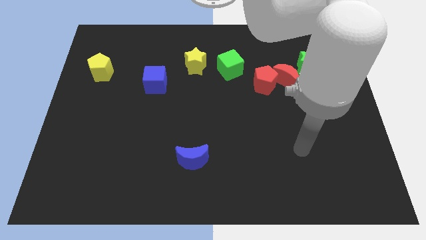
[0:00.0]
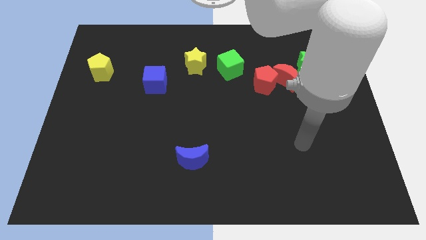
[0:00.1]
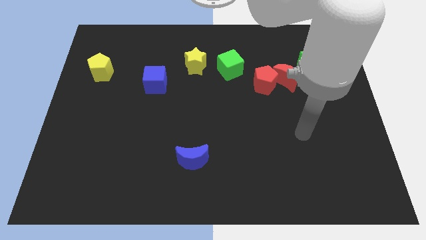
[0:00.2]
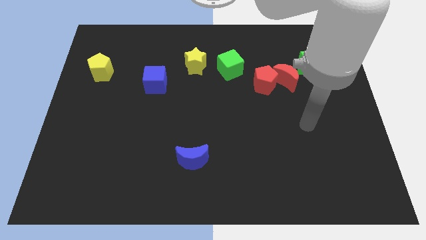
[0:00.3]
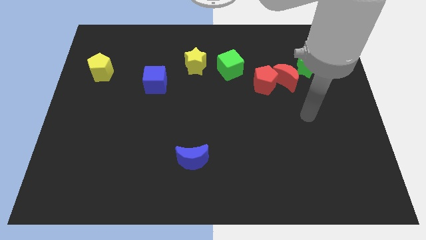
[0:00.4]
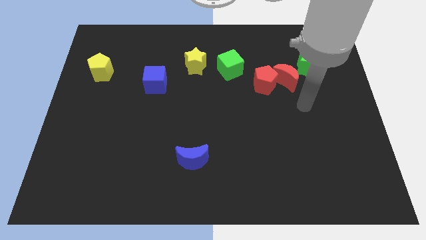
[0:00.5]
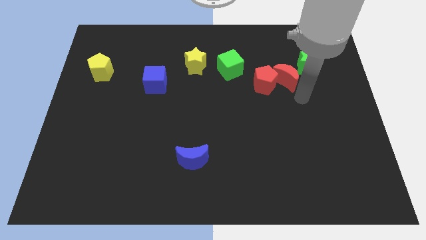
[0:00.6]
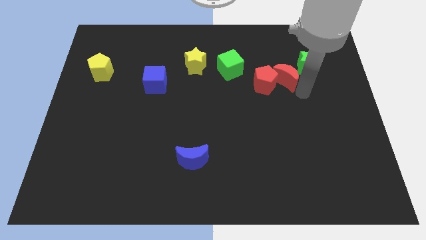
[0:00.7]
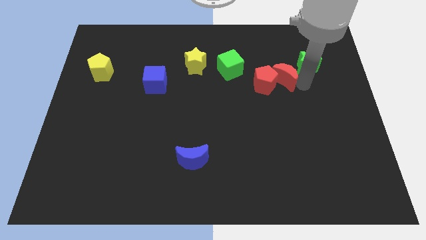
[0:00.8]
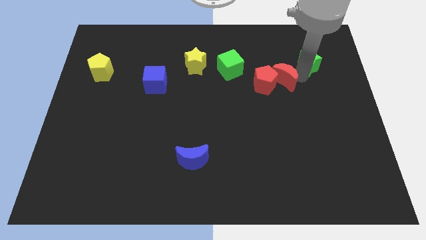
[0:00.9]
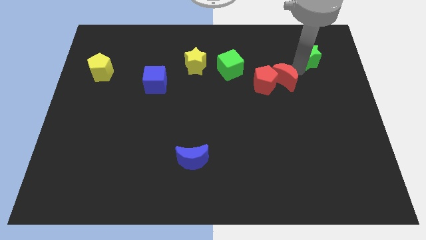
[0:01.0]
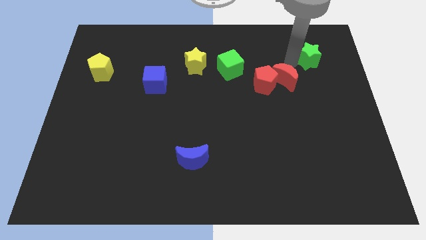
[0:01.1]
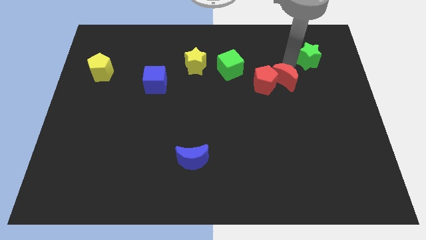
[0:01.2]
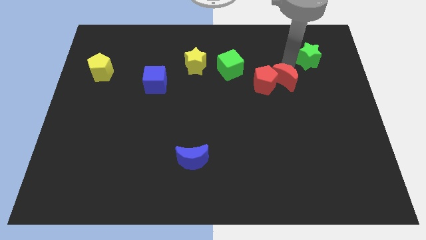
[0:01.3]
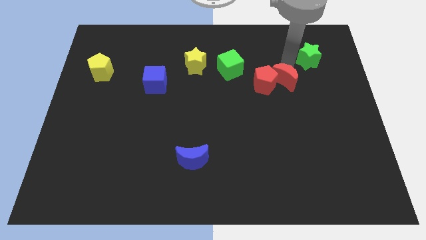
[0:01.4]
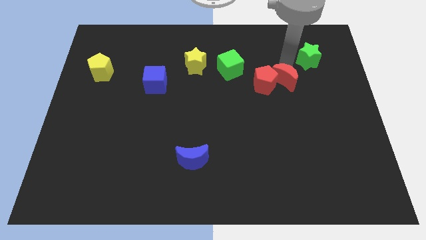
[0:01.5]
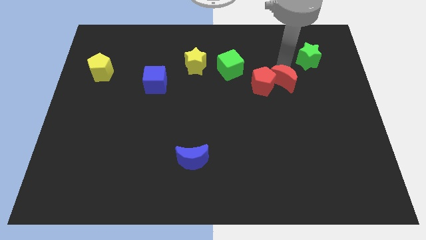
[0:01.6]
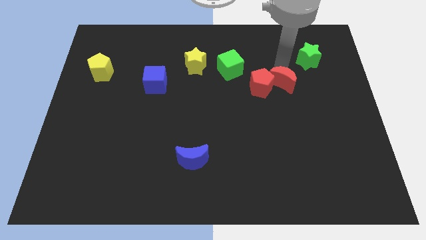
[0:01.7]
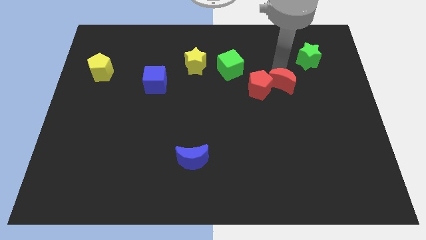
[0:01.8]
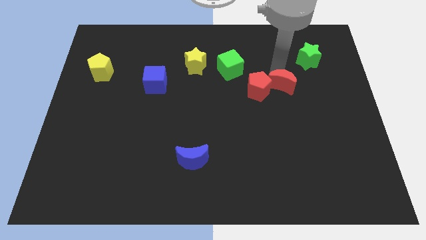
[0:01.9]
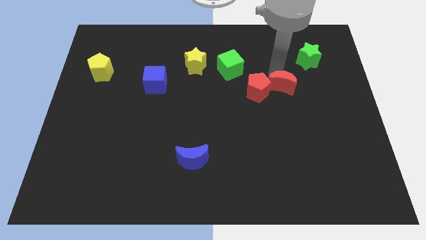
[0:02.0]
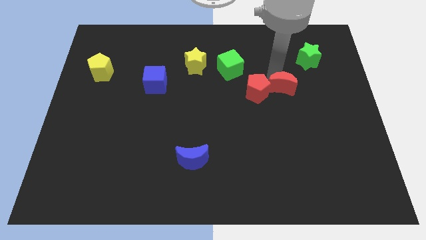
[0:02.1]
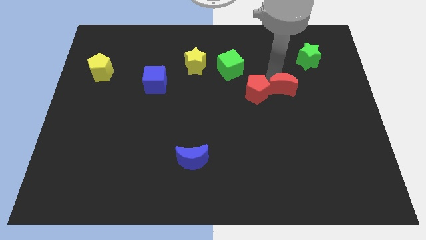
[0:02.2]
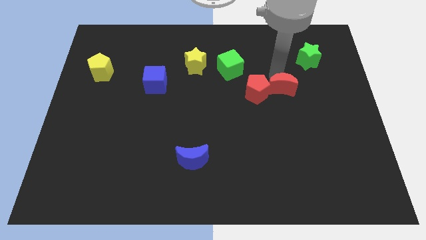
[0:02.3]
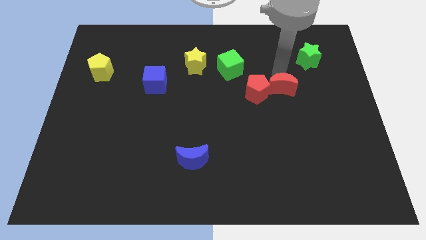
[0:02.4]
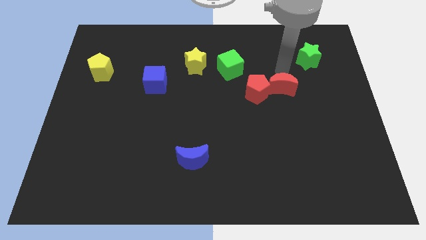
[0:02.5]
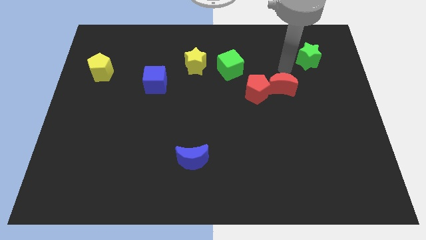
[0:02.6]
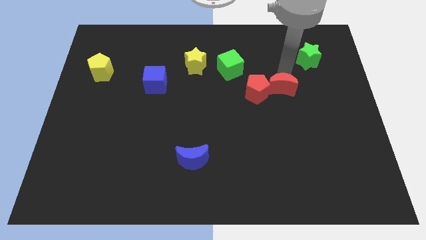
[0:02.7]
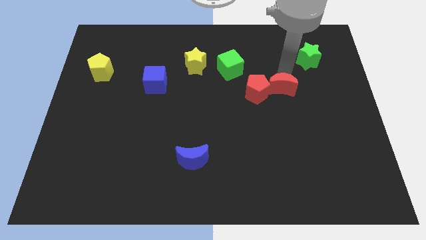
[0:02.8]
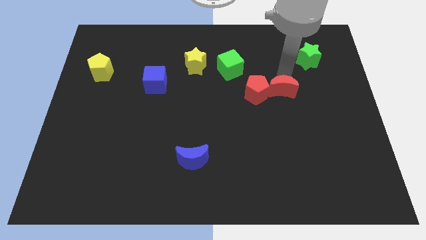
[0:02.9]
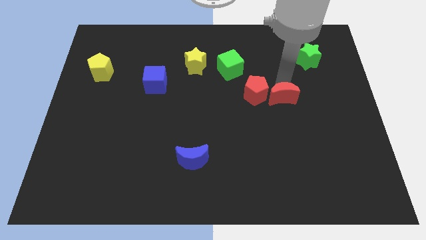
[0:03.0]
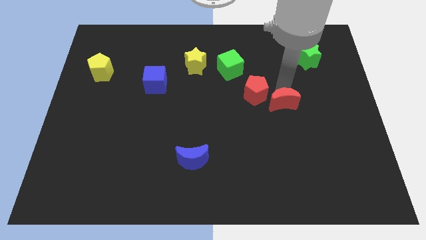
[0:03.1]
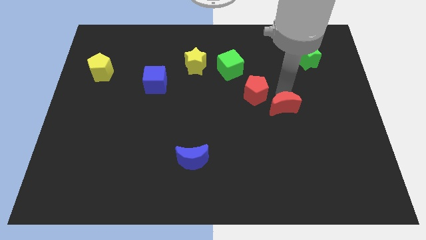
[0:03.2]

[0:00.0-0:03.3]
pull the red moon apart from the red pentagon and green star

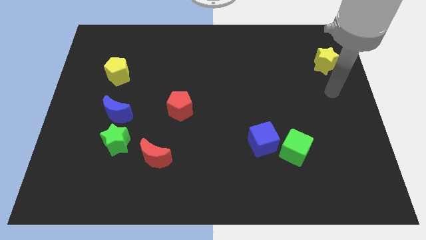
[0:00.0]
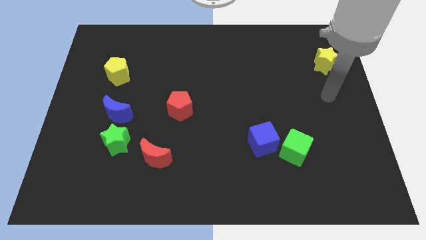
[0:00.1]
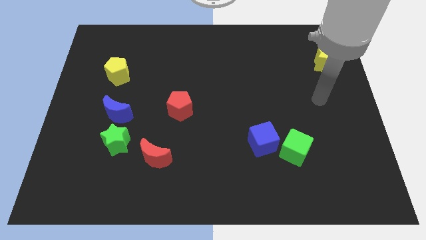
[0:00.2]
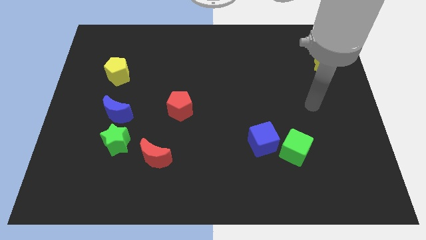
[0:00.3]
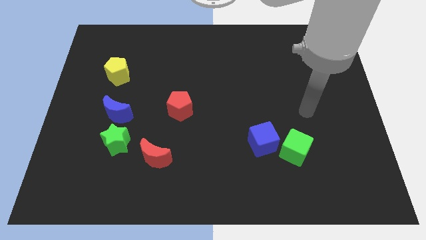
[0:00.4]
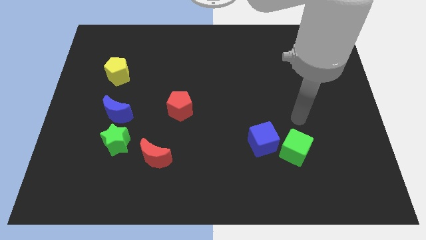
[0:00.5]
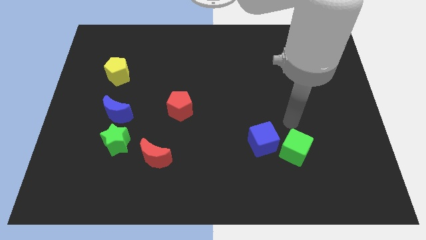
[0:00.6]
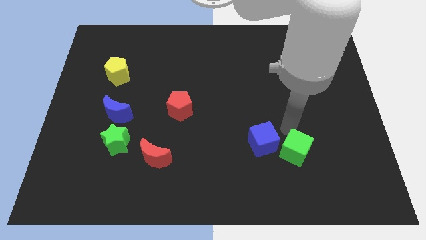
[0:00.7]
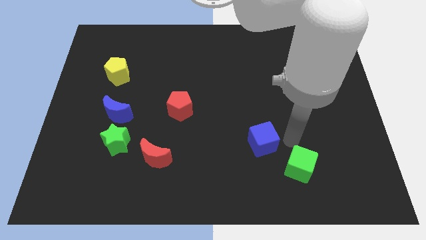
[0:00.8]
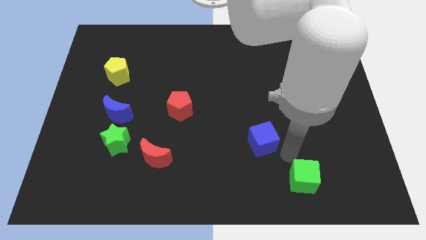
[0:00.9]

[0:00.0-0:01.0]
move the blue cube away from the green cube

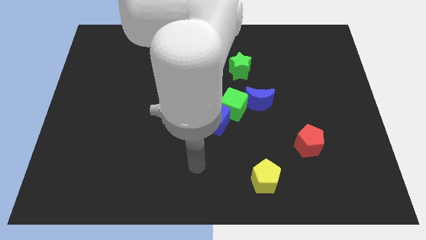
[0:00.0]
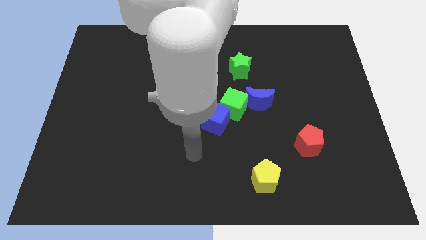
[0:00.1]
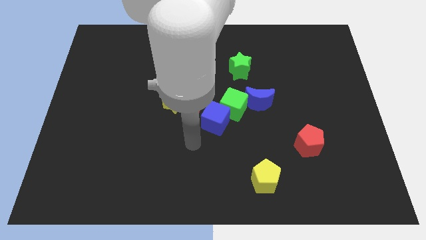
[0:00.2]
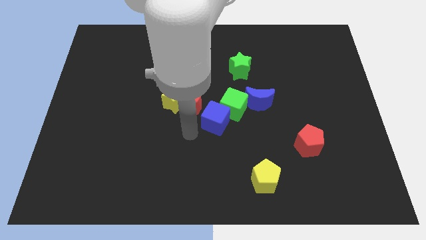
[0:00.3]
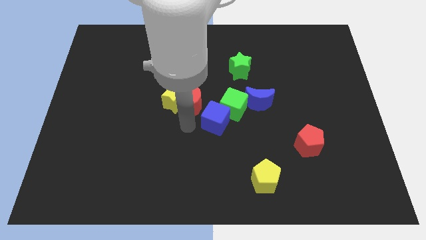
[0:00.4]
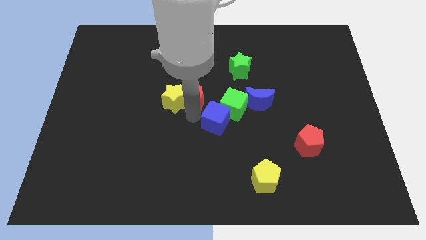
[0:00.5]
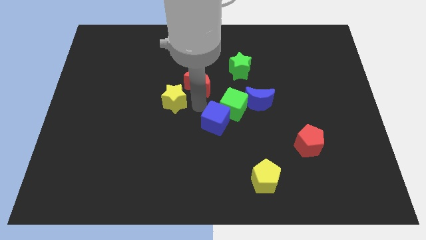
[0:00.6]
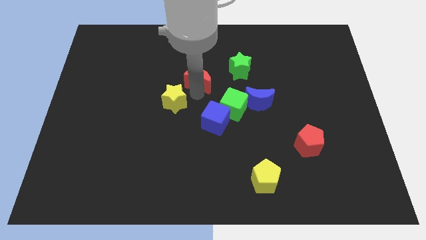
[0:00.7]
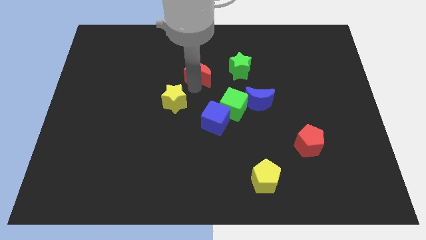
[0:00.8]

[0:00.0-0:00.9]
pull the yellow star apart from the red moon

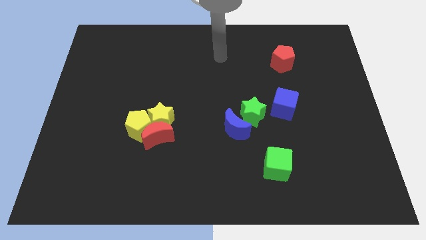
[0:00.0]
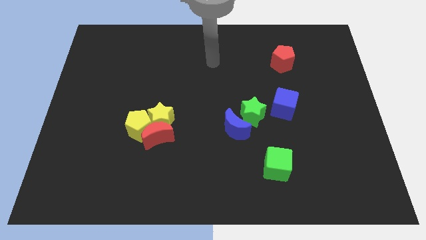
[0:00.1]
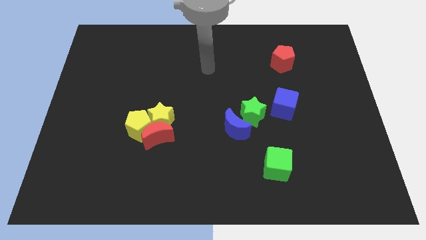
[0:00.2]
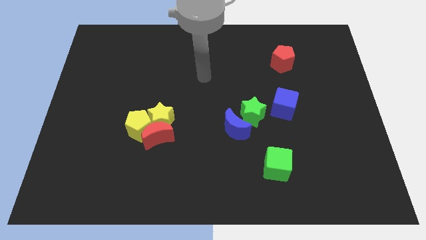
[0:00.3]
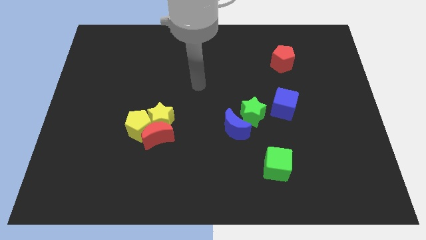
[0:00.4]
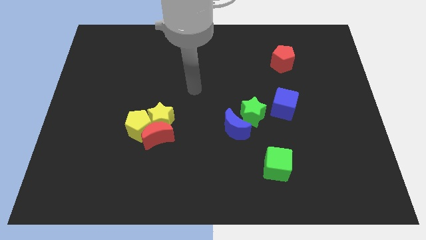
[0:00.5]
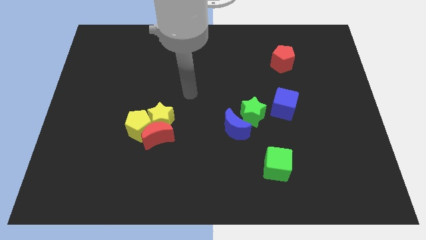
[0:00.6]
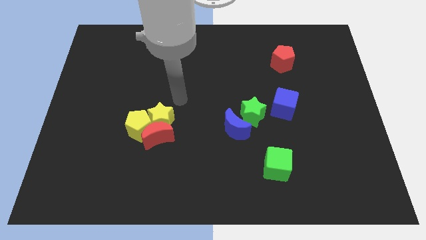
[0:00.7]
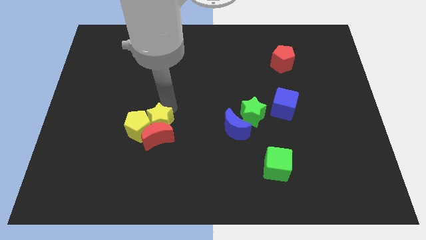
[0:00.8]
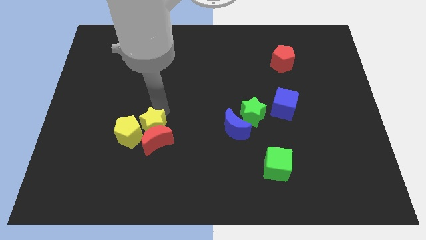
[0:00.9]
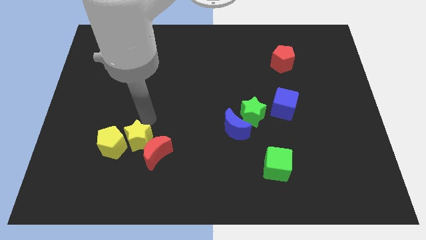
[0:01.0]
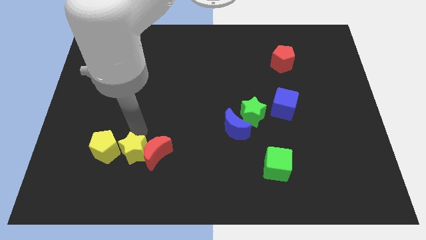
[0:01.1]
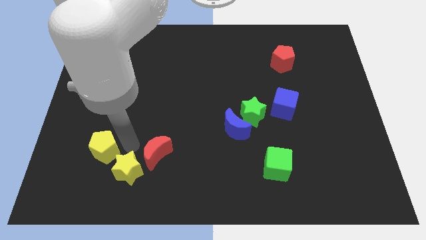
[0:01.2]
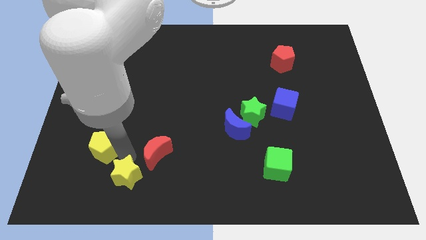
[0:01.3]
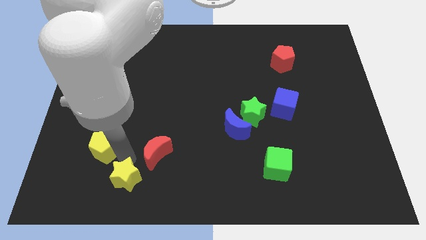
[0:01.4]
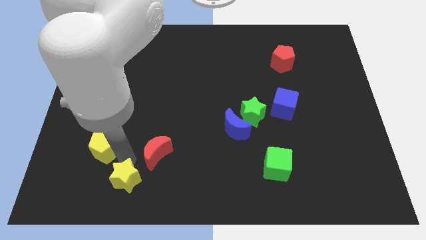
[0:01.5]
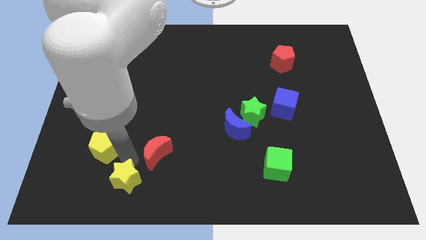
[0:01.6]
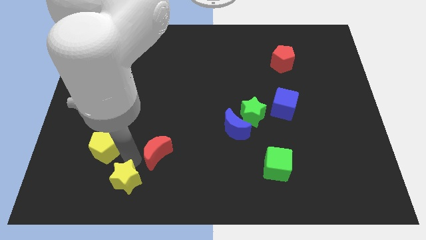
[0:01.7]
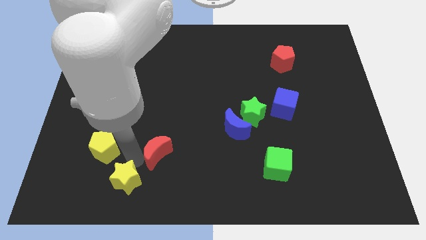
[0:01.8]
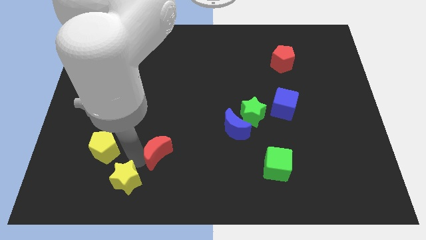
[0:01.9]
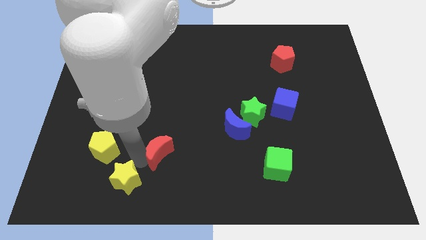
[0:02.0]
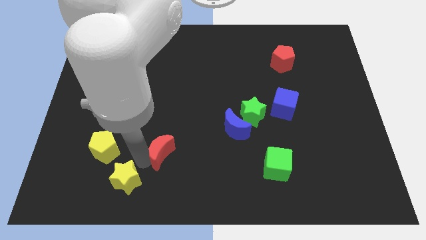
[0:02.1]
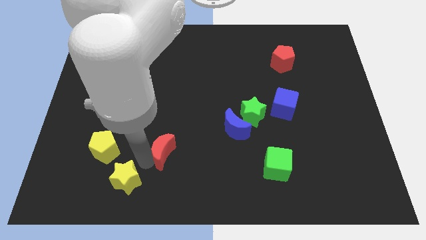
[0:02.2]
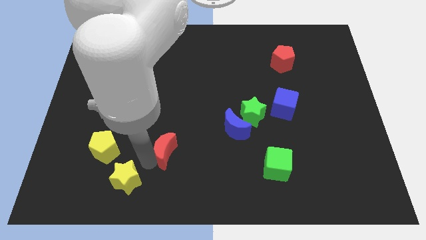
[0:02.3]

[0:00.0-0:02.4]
separate the red moon from the yellow pentagon and yellow star

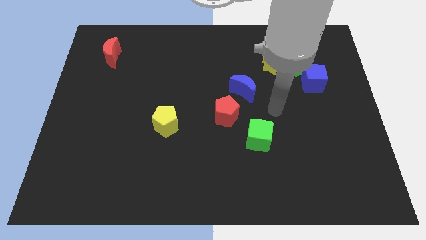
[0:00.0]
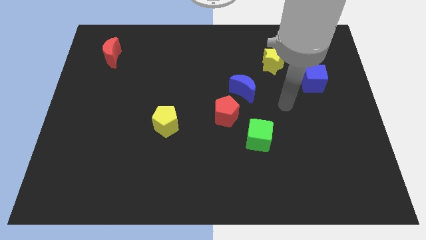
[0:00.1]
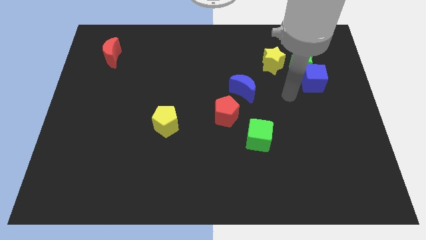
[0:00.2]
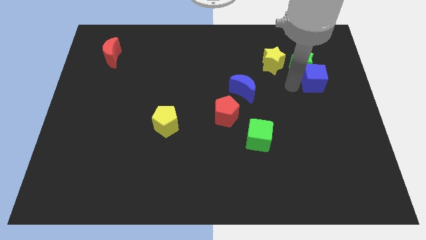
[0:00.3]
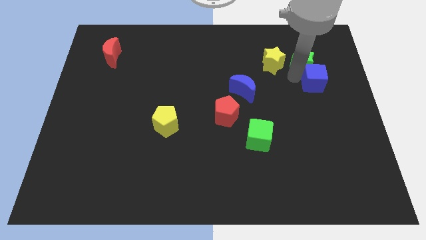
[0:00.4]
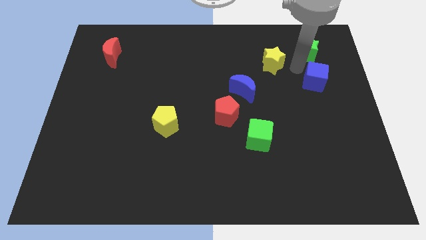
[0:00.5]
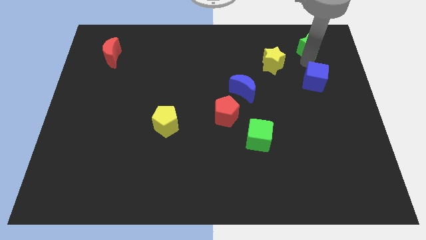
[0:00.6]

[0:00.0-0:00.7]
move the blue cube away from the green star

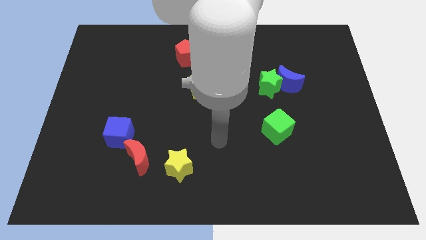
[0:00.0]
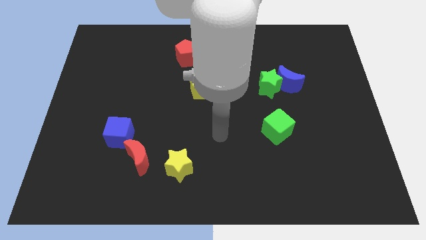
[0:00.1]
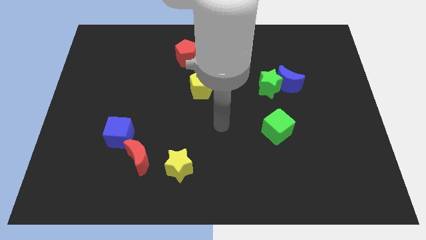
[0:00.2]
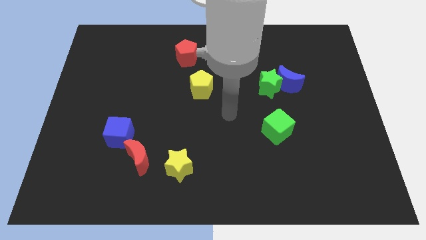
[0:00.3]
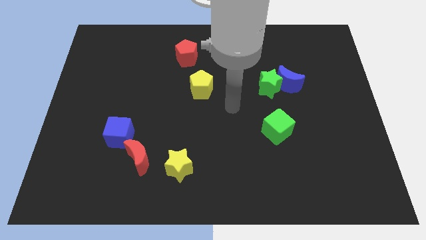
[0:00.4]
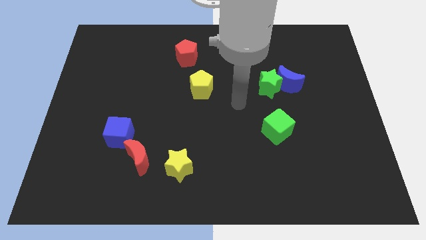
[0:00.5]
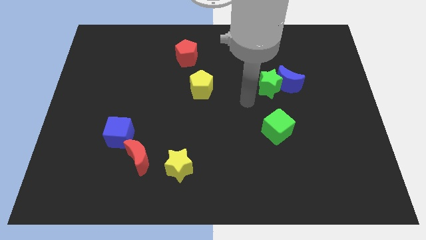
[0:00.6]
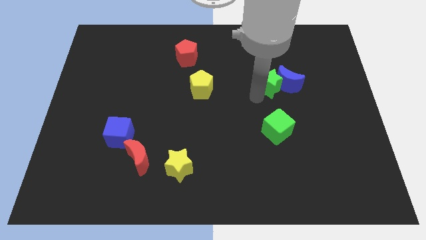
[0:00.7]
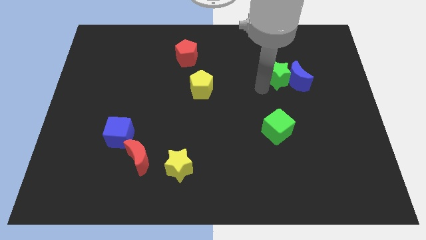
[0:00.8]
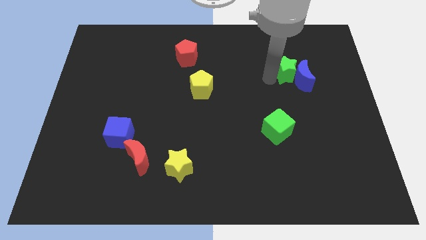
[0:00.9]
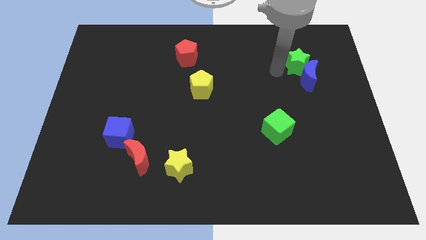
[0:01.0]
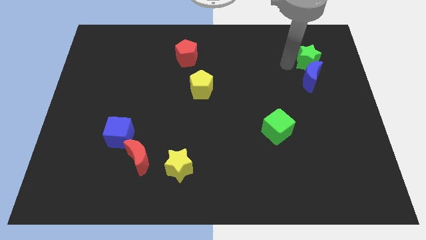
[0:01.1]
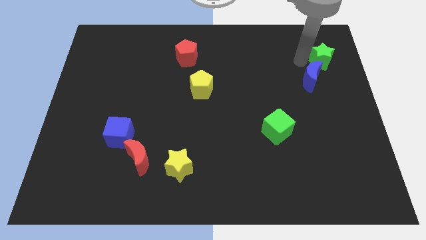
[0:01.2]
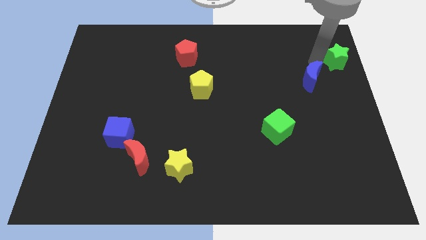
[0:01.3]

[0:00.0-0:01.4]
move the blue moon away from the green star
